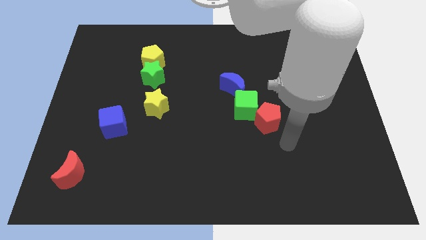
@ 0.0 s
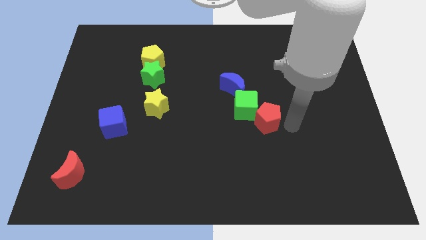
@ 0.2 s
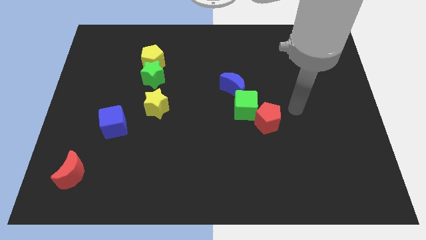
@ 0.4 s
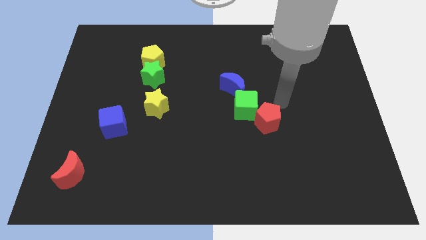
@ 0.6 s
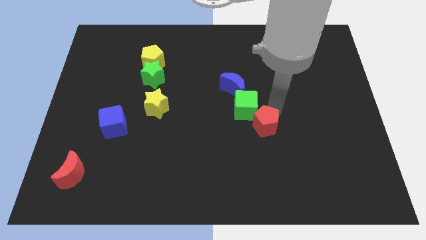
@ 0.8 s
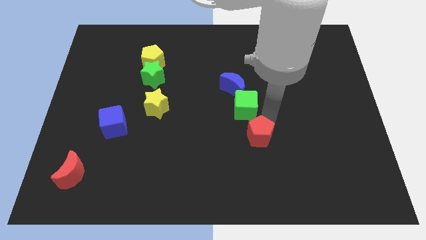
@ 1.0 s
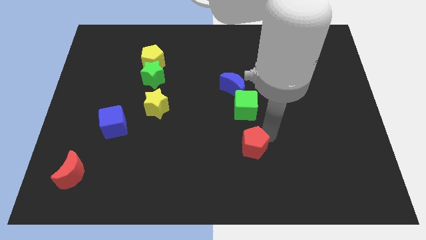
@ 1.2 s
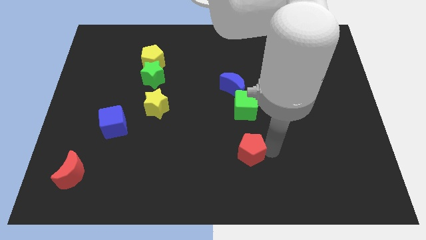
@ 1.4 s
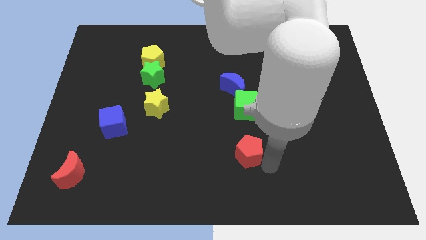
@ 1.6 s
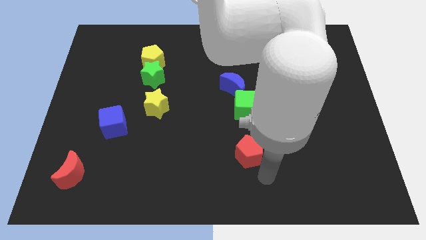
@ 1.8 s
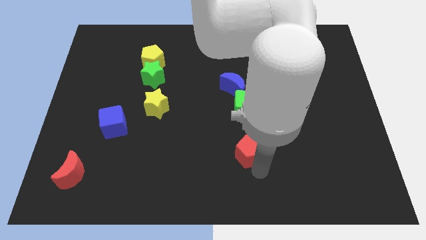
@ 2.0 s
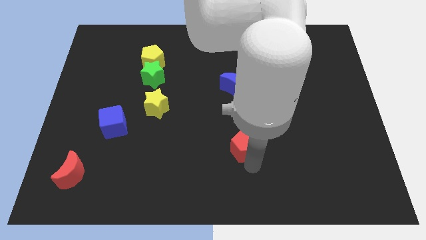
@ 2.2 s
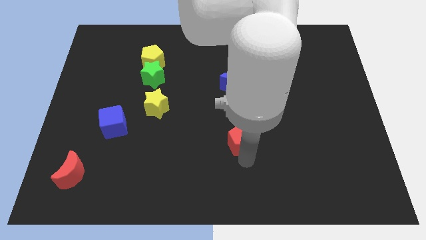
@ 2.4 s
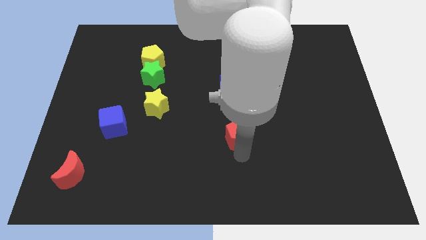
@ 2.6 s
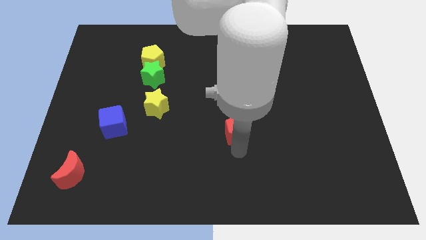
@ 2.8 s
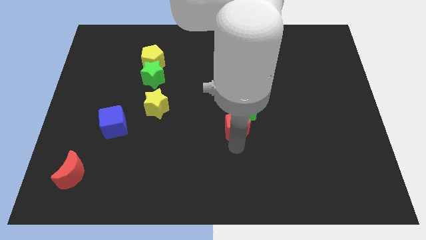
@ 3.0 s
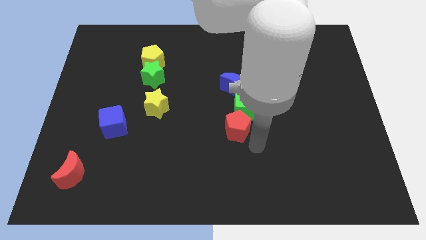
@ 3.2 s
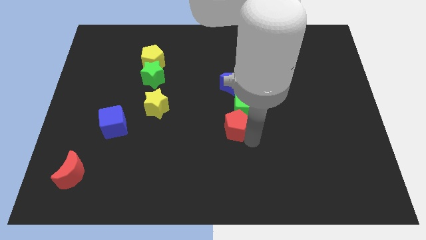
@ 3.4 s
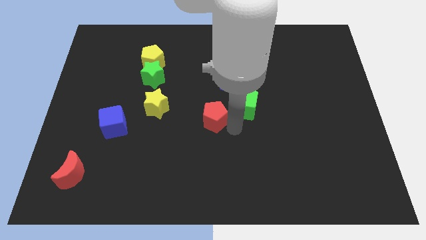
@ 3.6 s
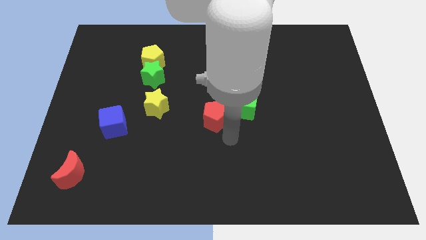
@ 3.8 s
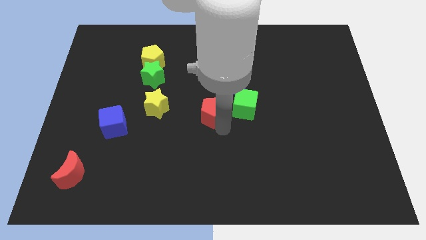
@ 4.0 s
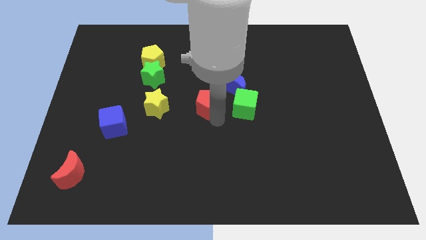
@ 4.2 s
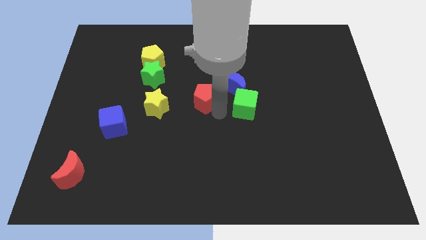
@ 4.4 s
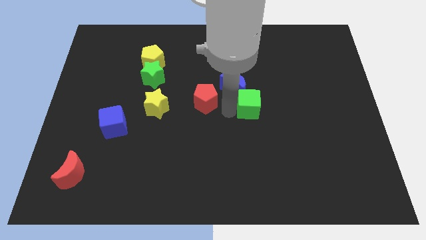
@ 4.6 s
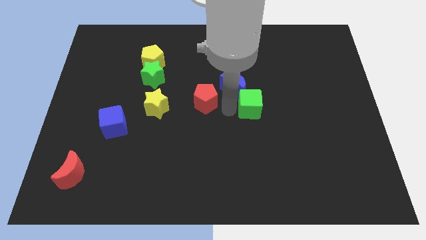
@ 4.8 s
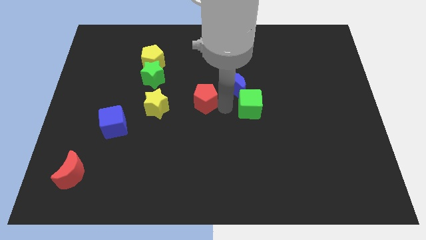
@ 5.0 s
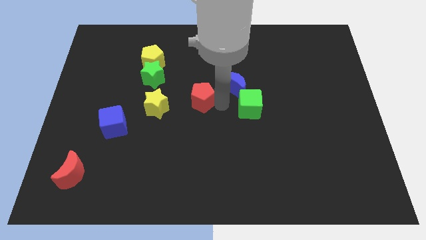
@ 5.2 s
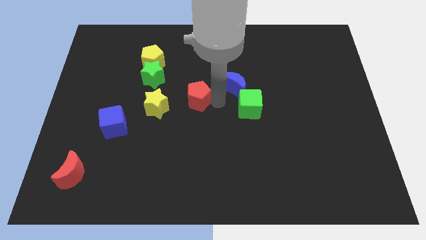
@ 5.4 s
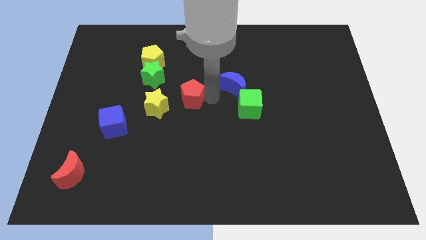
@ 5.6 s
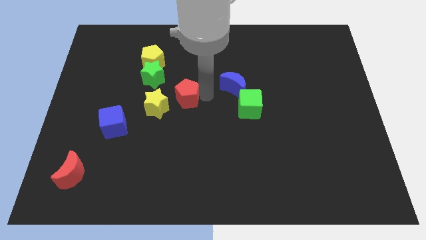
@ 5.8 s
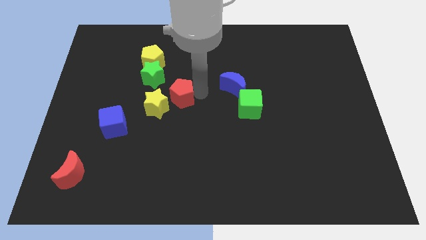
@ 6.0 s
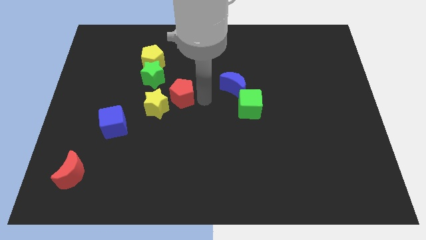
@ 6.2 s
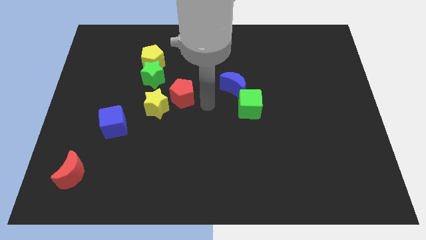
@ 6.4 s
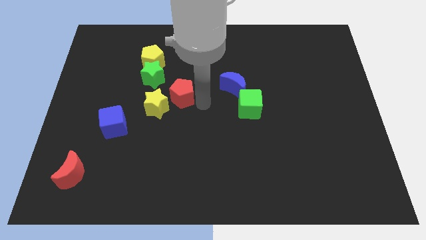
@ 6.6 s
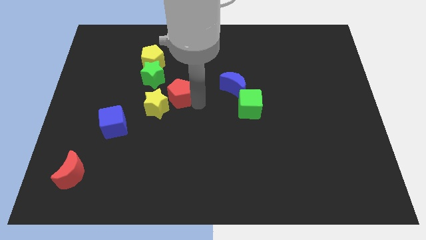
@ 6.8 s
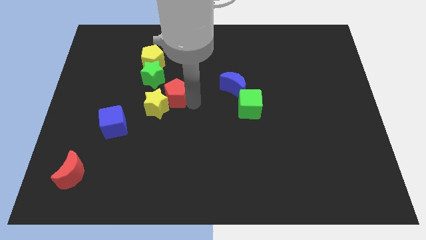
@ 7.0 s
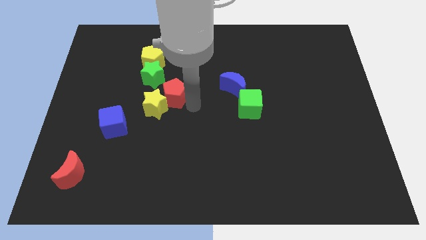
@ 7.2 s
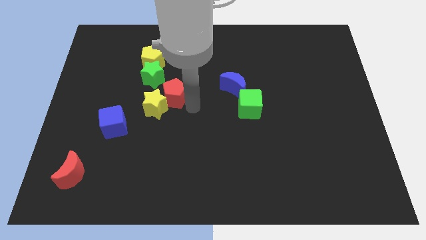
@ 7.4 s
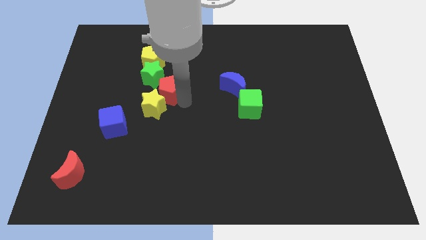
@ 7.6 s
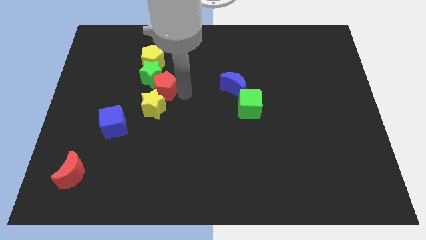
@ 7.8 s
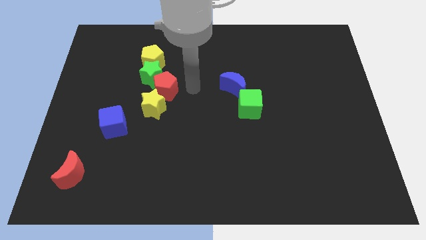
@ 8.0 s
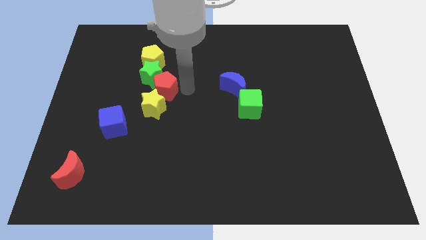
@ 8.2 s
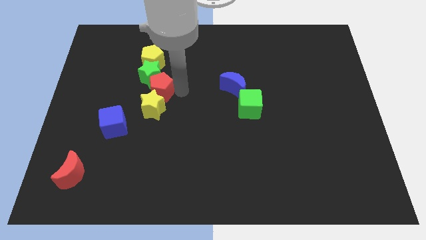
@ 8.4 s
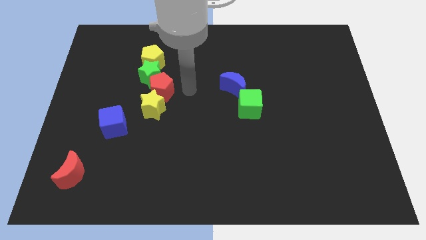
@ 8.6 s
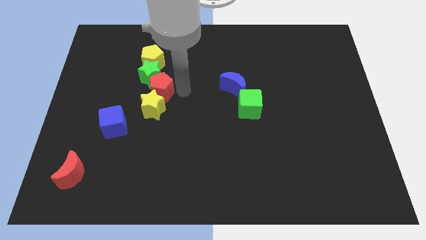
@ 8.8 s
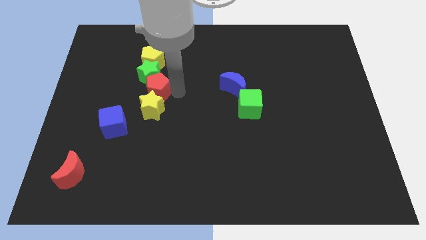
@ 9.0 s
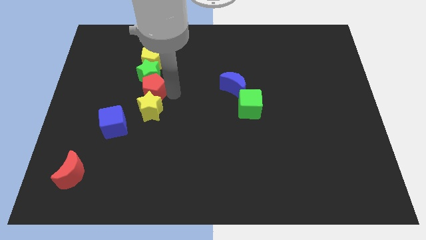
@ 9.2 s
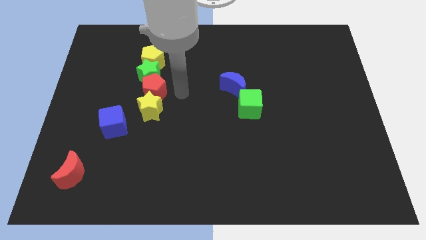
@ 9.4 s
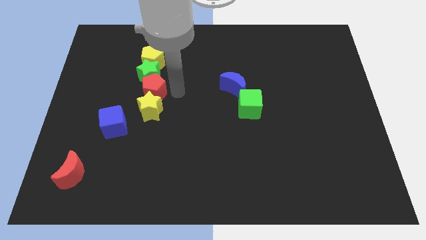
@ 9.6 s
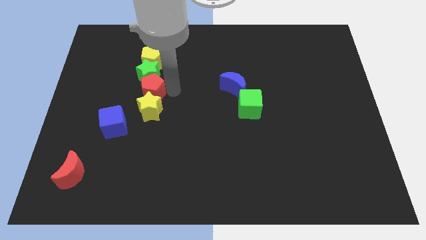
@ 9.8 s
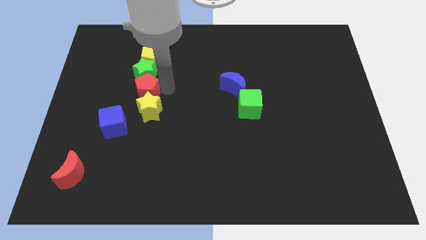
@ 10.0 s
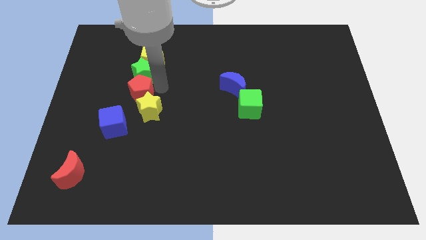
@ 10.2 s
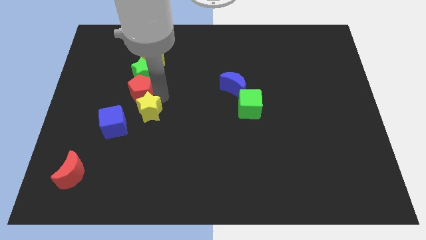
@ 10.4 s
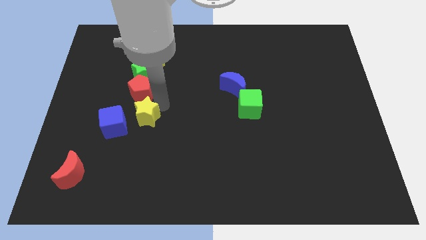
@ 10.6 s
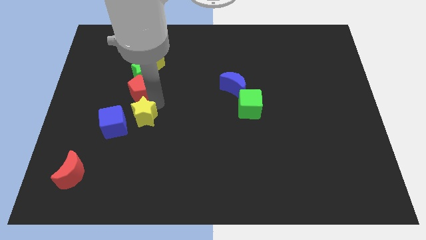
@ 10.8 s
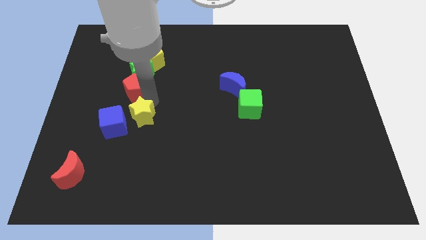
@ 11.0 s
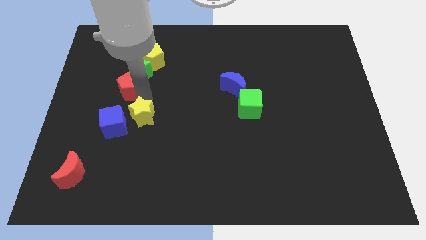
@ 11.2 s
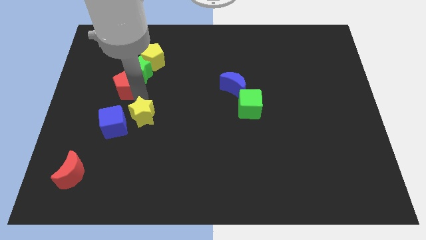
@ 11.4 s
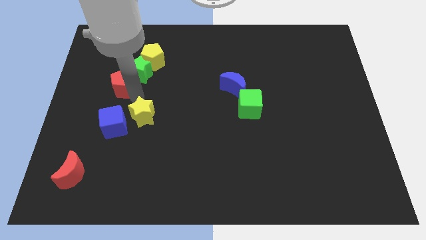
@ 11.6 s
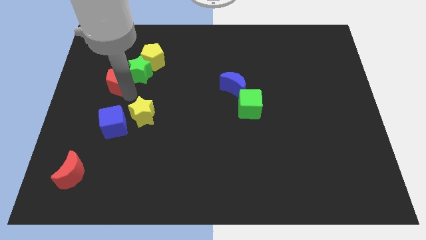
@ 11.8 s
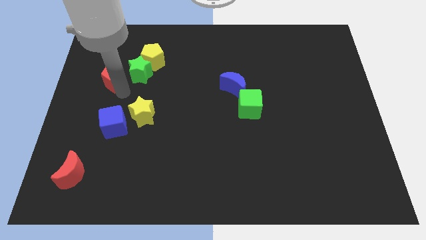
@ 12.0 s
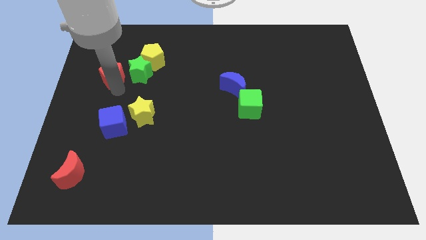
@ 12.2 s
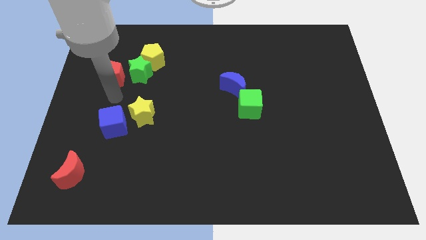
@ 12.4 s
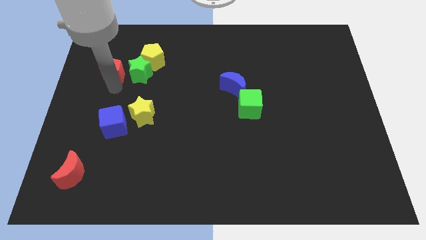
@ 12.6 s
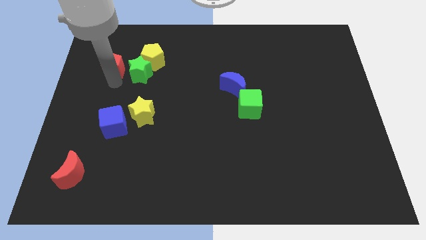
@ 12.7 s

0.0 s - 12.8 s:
slide the red pentagon just left of the yellow pentagon

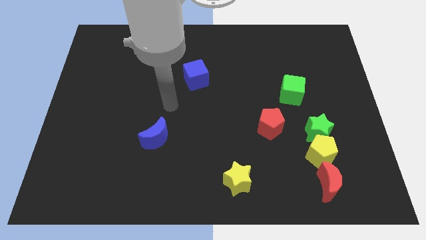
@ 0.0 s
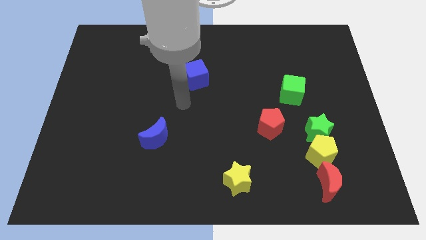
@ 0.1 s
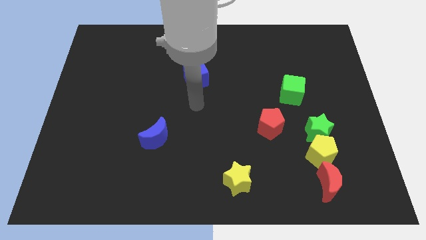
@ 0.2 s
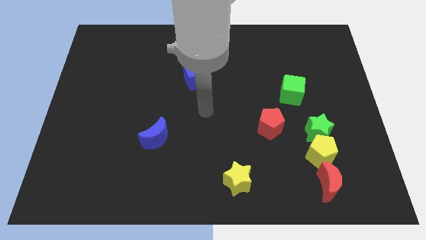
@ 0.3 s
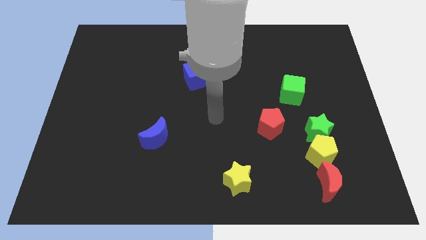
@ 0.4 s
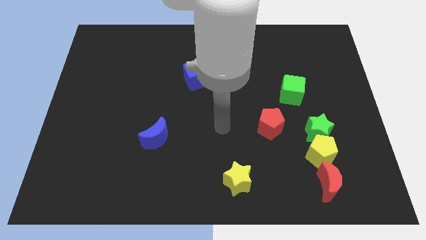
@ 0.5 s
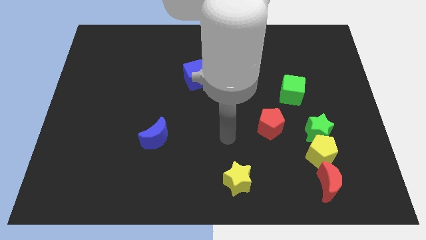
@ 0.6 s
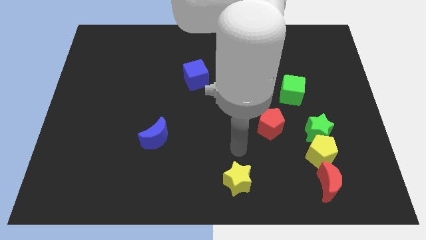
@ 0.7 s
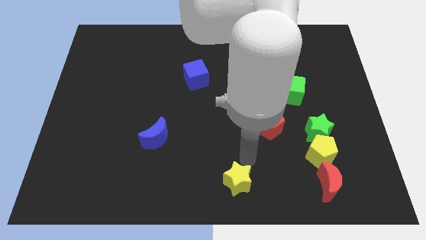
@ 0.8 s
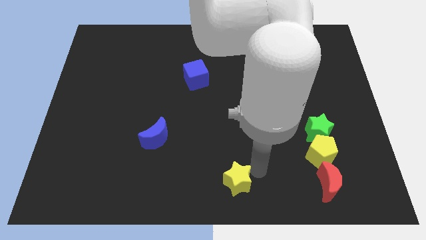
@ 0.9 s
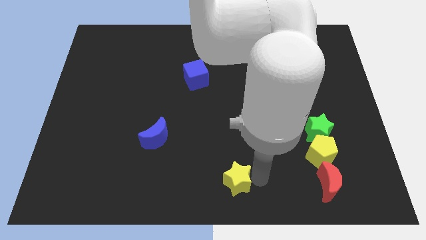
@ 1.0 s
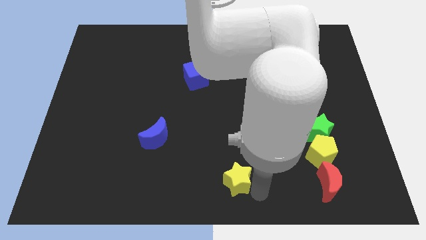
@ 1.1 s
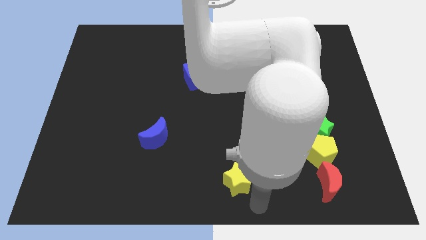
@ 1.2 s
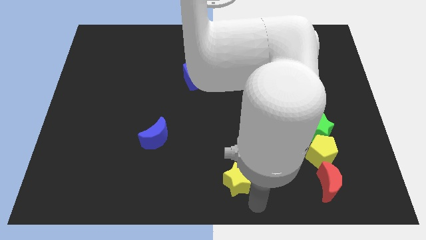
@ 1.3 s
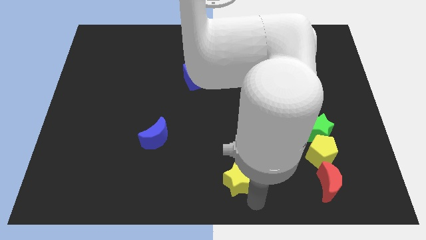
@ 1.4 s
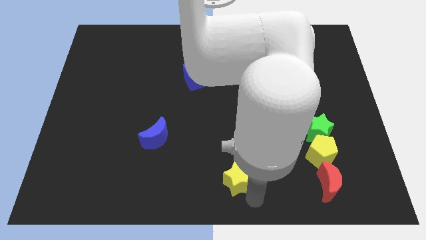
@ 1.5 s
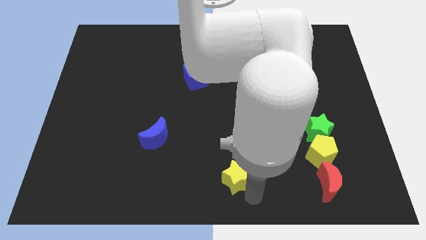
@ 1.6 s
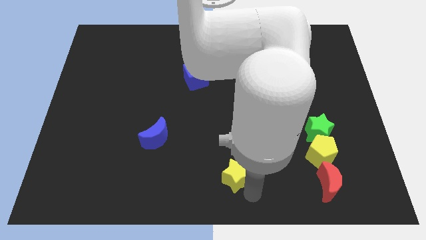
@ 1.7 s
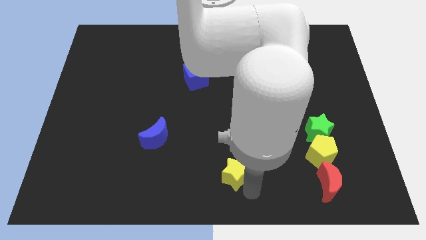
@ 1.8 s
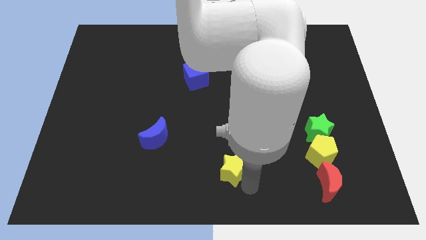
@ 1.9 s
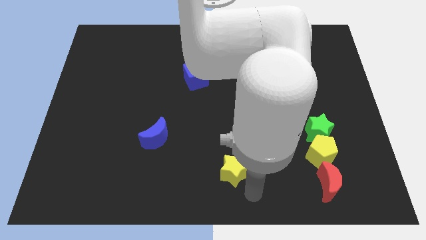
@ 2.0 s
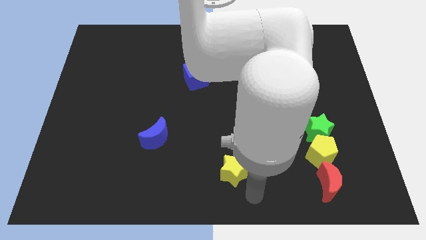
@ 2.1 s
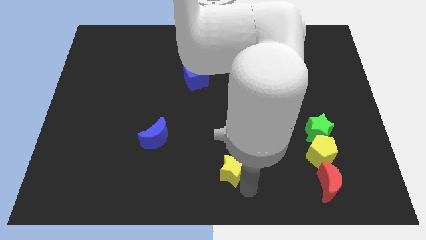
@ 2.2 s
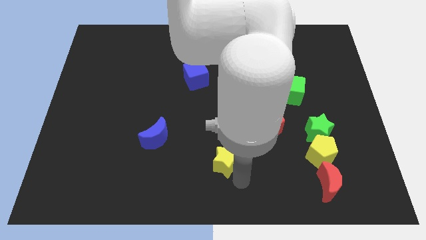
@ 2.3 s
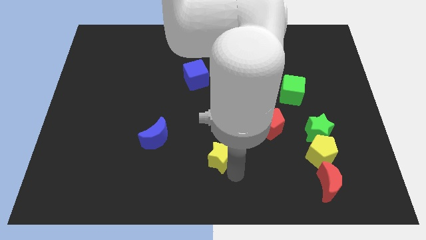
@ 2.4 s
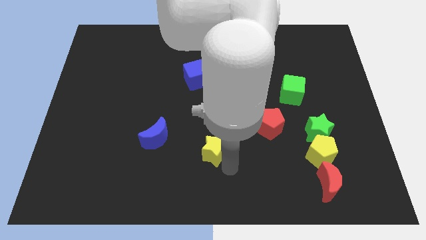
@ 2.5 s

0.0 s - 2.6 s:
put the yellow star to the right of the blue moon
